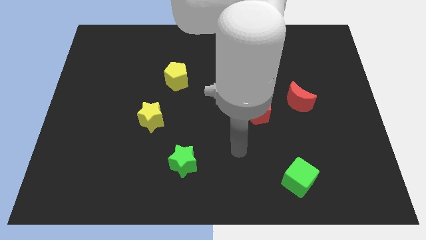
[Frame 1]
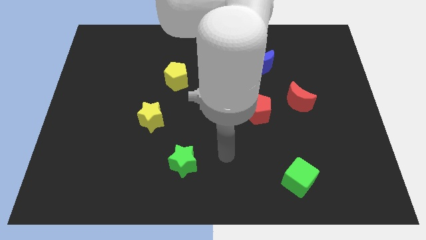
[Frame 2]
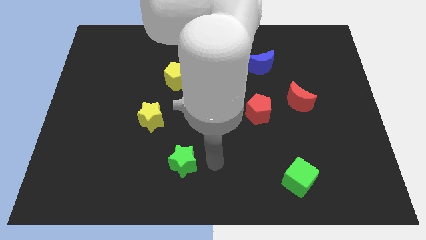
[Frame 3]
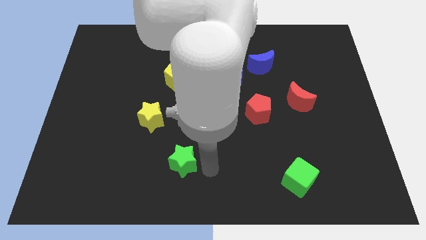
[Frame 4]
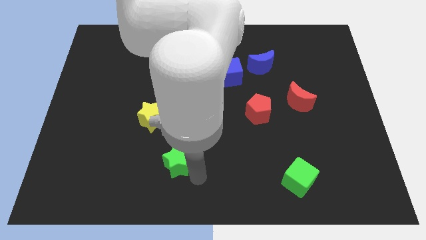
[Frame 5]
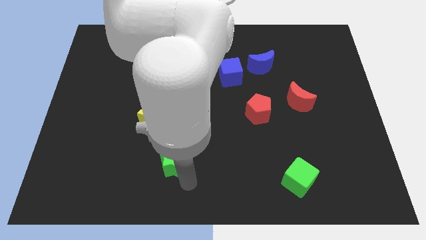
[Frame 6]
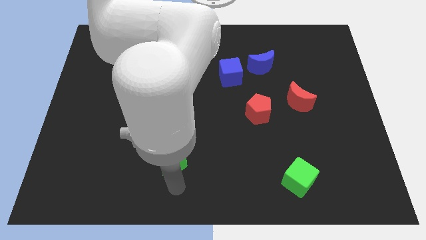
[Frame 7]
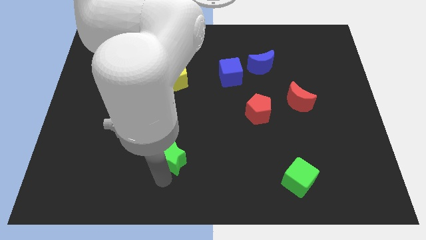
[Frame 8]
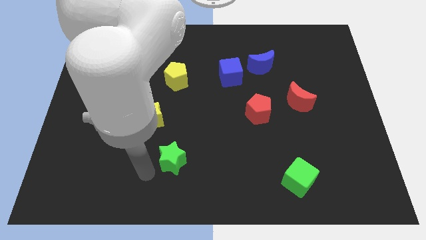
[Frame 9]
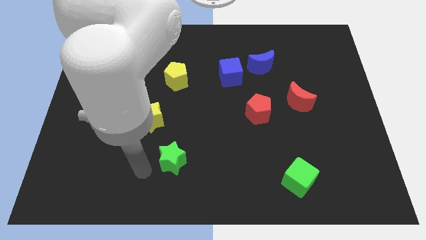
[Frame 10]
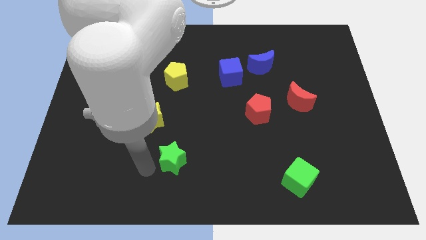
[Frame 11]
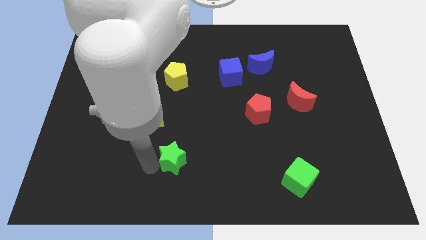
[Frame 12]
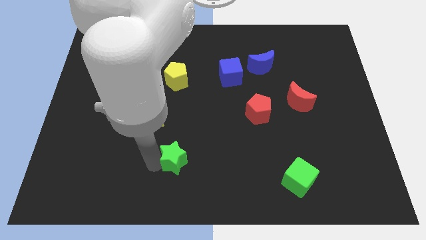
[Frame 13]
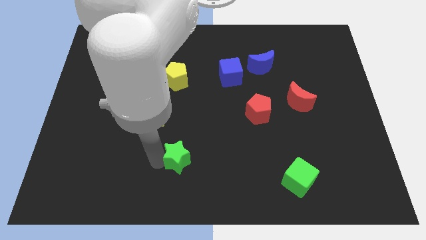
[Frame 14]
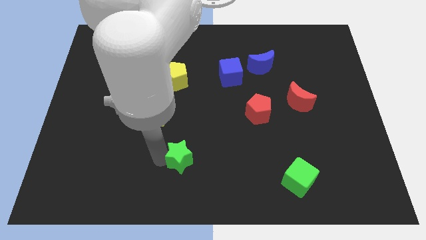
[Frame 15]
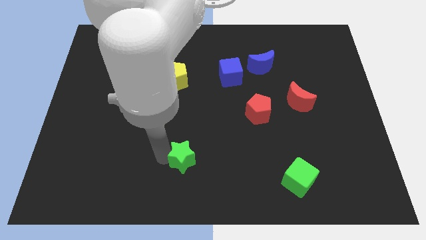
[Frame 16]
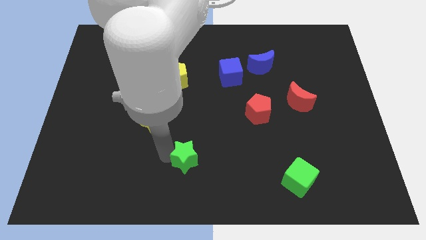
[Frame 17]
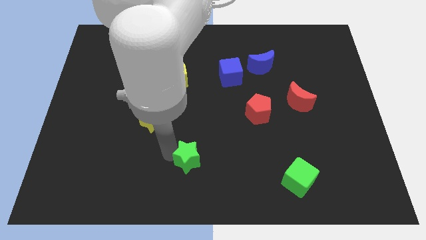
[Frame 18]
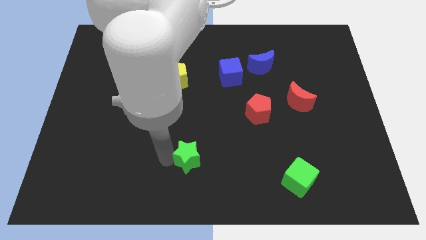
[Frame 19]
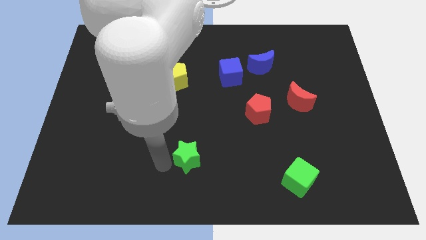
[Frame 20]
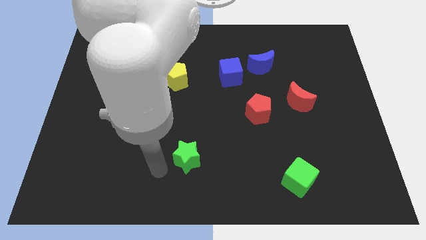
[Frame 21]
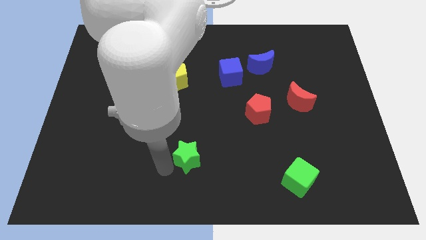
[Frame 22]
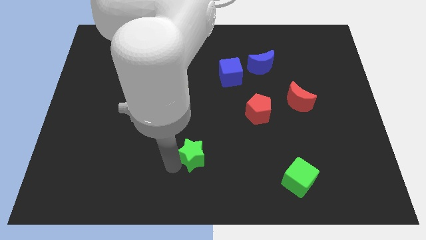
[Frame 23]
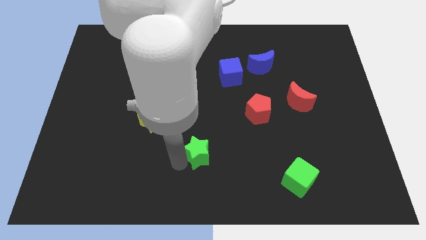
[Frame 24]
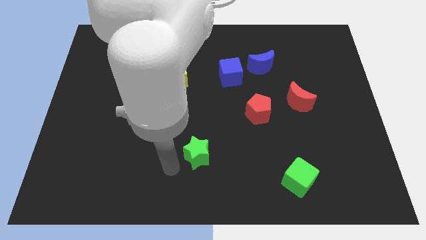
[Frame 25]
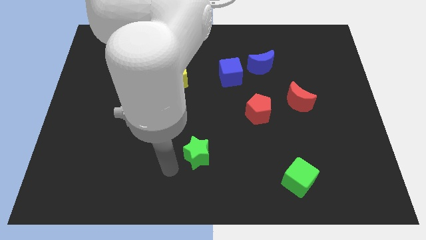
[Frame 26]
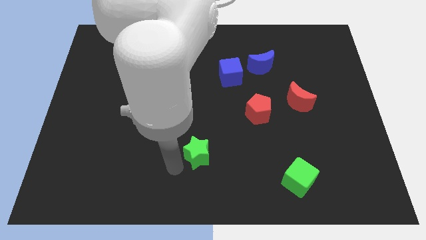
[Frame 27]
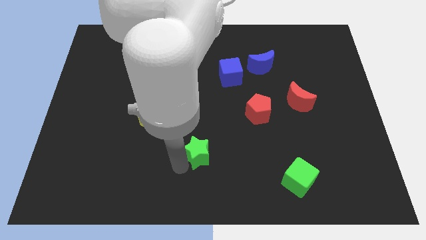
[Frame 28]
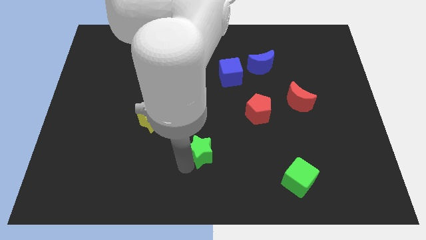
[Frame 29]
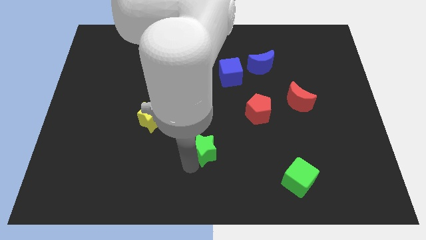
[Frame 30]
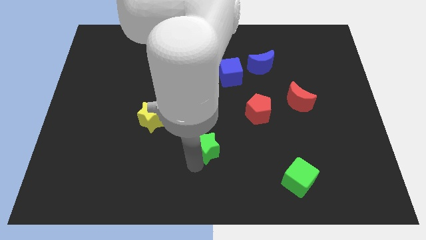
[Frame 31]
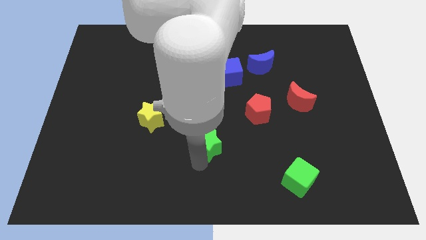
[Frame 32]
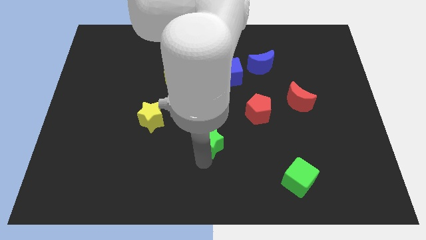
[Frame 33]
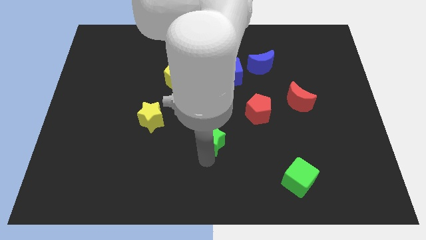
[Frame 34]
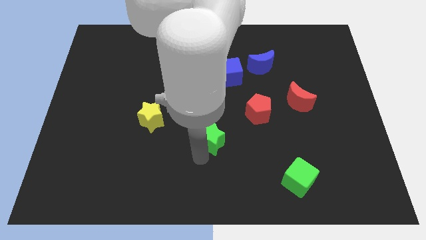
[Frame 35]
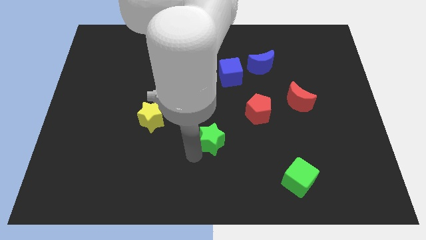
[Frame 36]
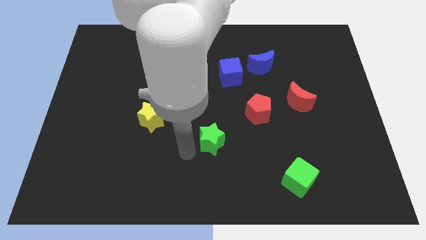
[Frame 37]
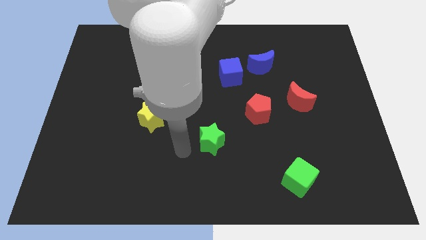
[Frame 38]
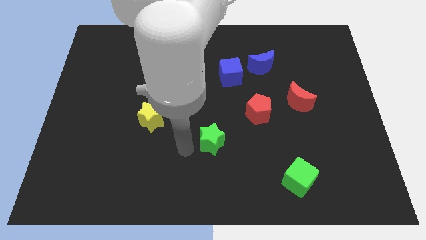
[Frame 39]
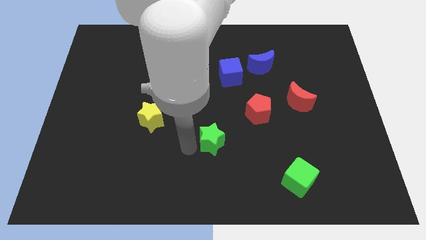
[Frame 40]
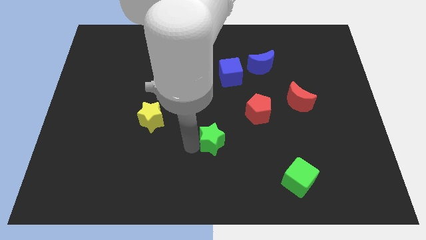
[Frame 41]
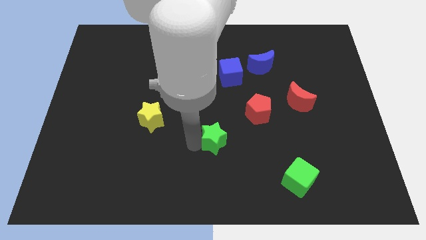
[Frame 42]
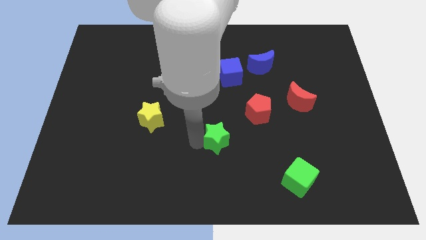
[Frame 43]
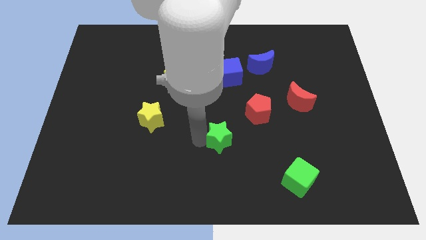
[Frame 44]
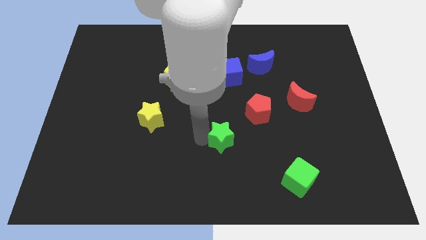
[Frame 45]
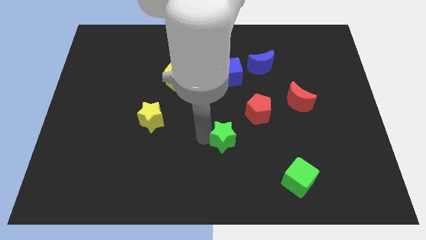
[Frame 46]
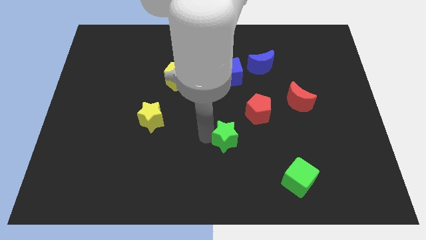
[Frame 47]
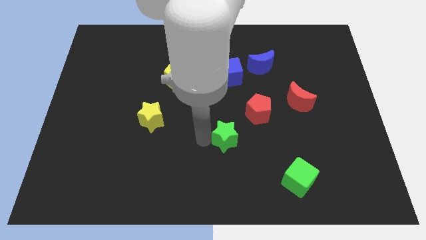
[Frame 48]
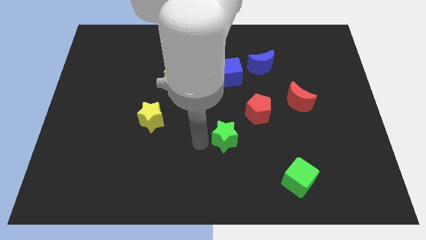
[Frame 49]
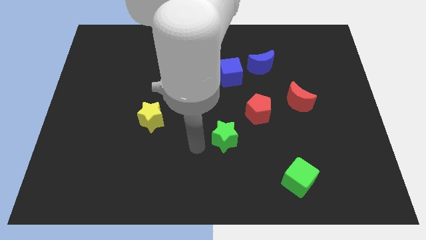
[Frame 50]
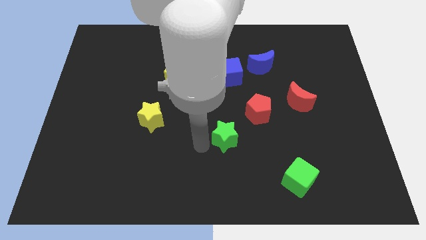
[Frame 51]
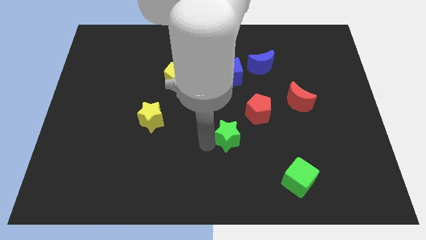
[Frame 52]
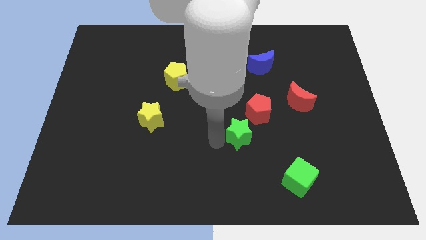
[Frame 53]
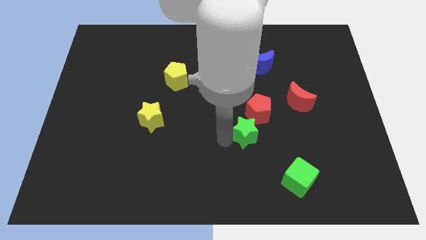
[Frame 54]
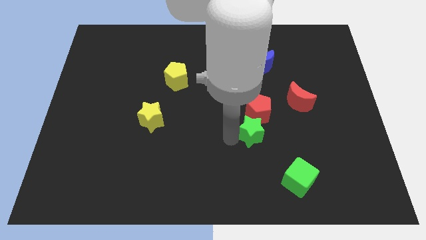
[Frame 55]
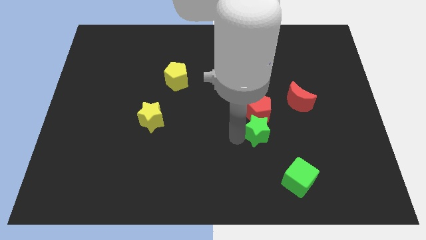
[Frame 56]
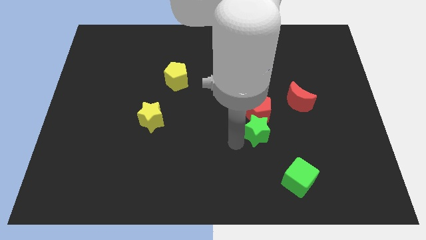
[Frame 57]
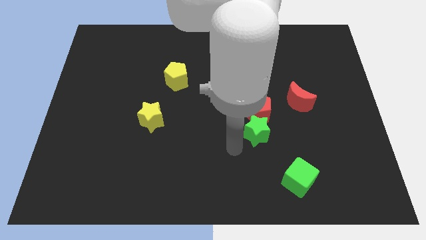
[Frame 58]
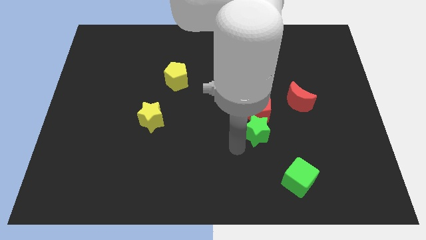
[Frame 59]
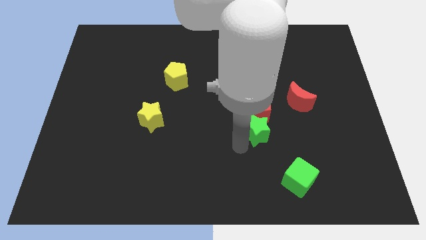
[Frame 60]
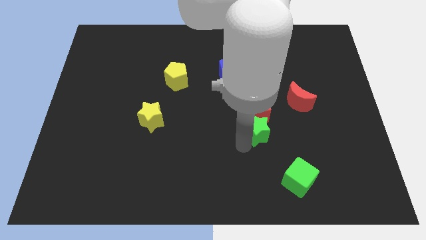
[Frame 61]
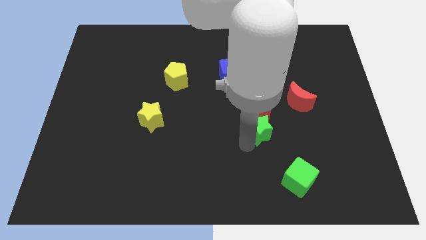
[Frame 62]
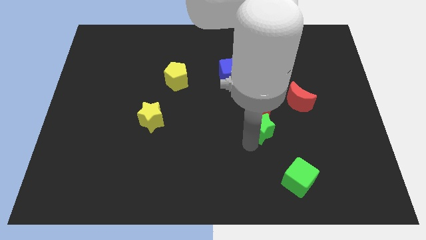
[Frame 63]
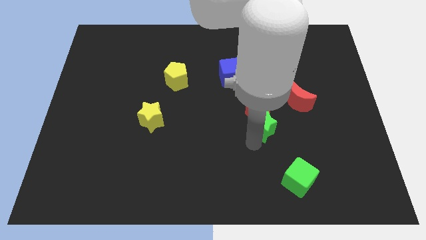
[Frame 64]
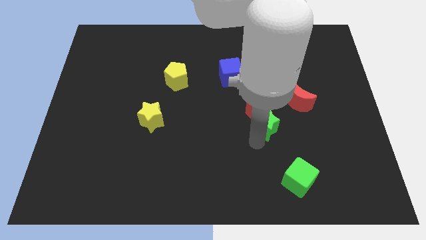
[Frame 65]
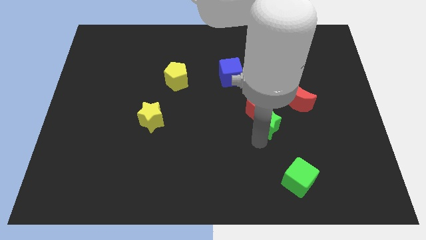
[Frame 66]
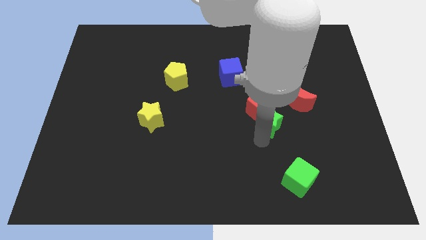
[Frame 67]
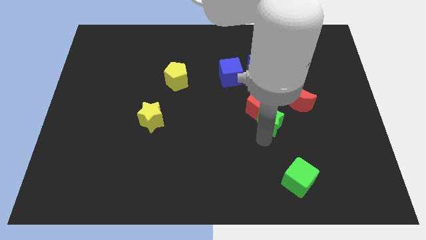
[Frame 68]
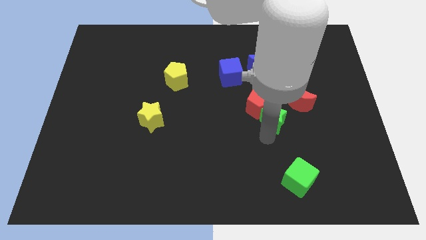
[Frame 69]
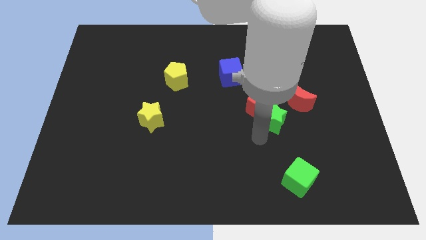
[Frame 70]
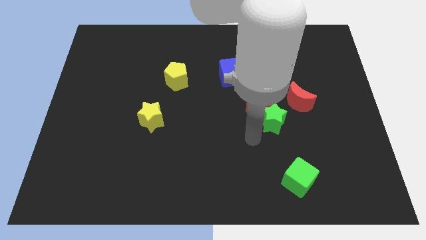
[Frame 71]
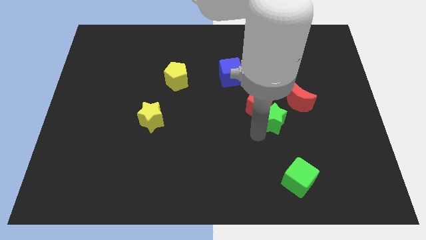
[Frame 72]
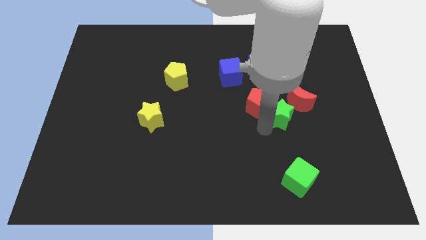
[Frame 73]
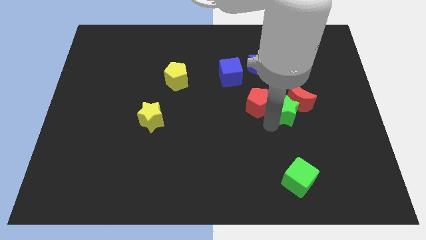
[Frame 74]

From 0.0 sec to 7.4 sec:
put the green star close to the red moon

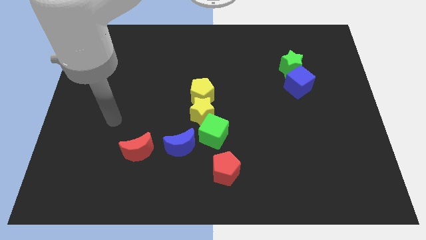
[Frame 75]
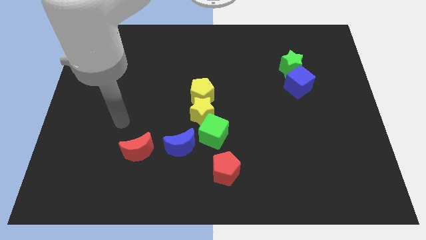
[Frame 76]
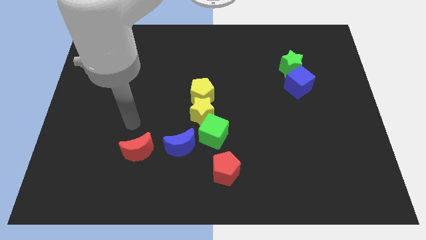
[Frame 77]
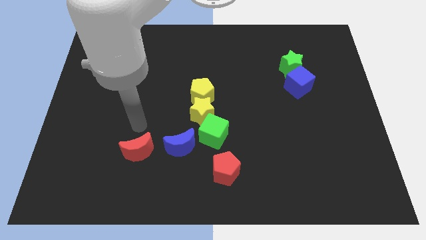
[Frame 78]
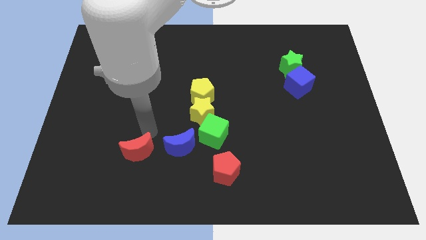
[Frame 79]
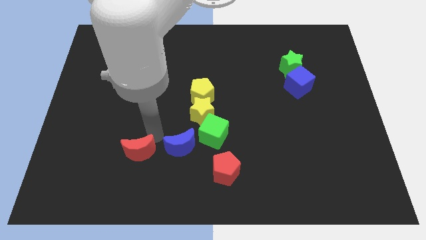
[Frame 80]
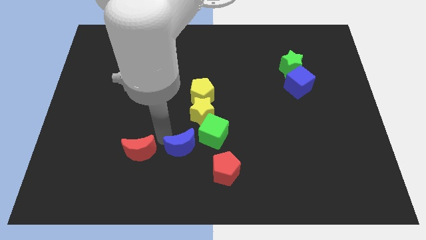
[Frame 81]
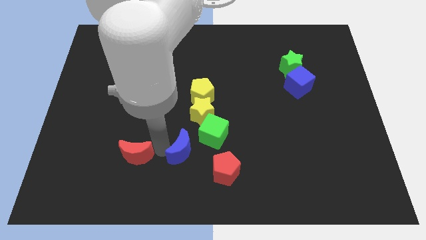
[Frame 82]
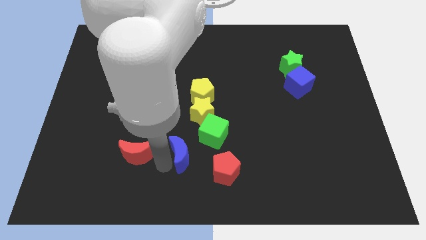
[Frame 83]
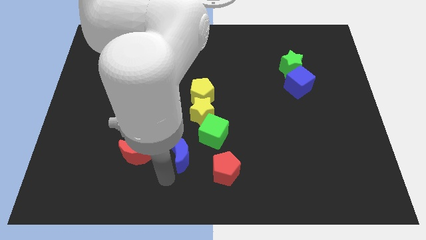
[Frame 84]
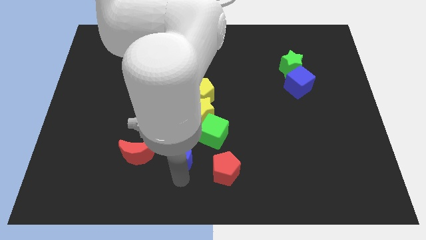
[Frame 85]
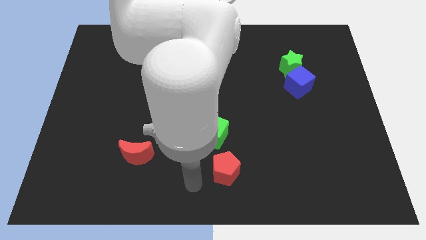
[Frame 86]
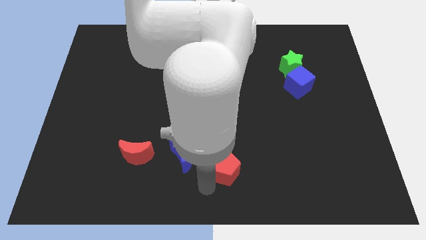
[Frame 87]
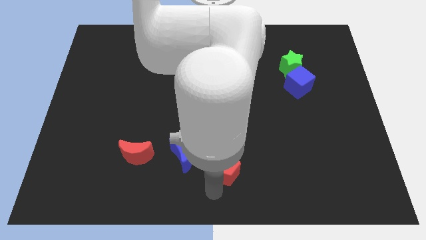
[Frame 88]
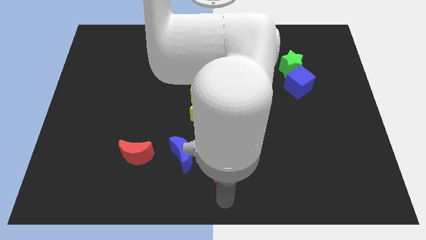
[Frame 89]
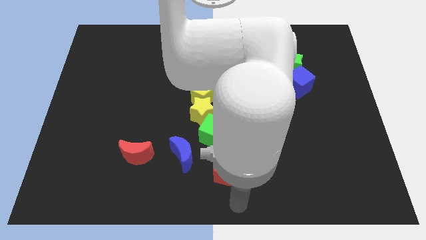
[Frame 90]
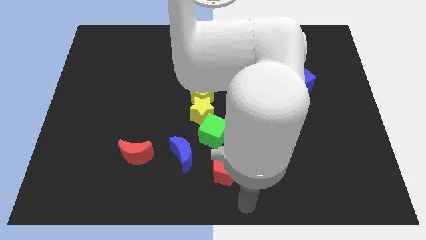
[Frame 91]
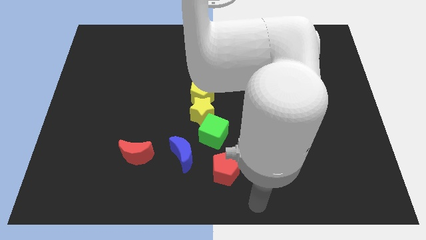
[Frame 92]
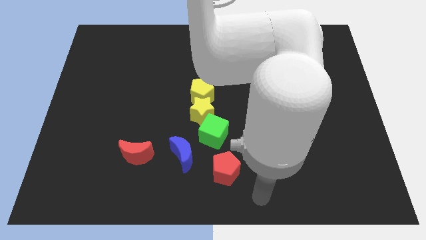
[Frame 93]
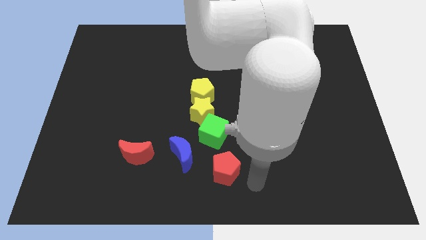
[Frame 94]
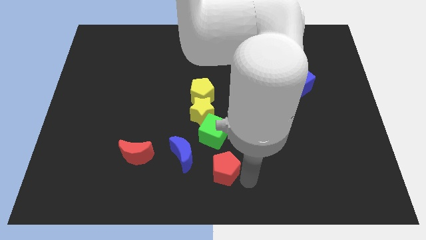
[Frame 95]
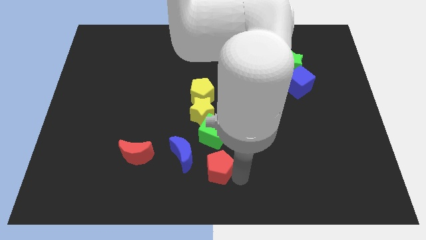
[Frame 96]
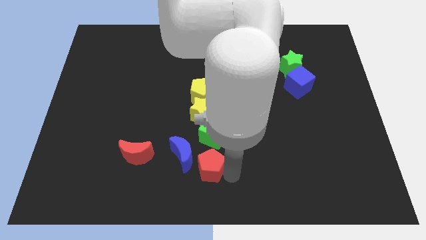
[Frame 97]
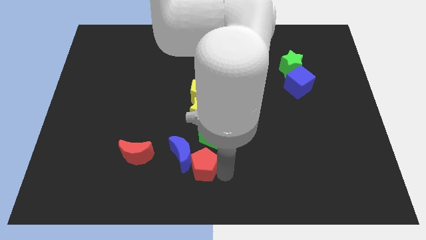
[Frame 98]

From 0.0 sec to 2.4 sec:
move the red pentagon to the blue moon
